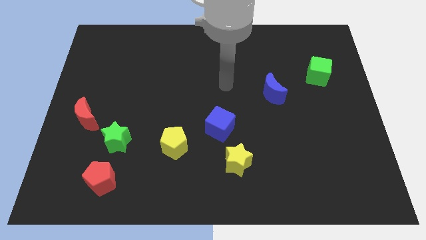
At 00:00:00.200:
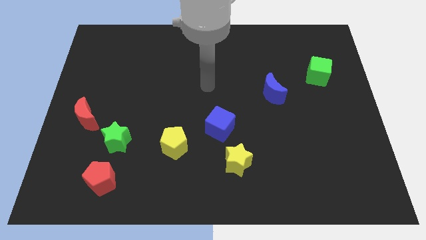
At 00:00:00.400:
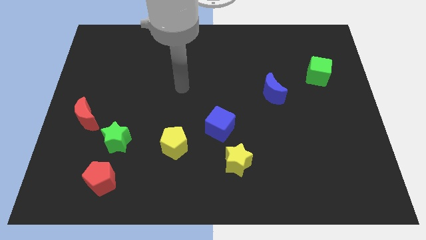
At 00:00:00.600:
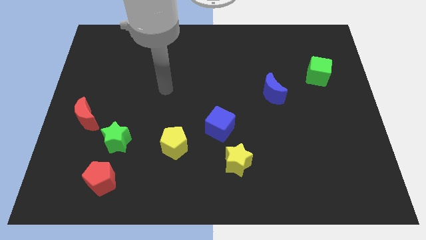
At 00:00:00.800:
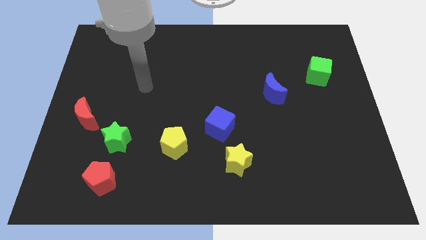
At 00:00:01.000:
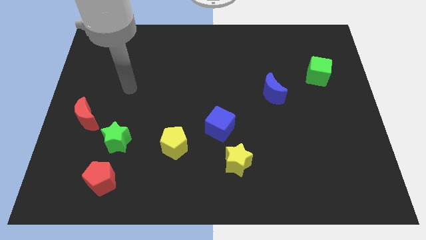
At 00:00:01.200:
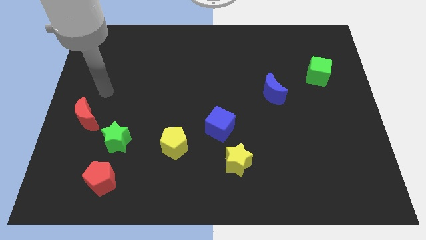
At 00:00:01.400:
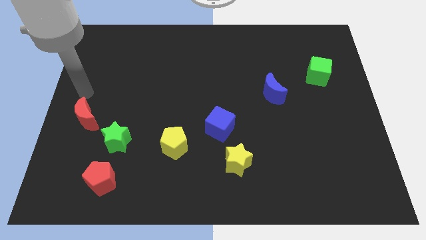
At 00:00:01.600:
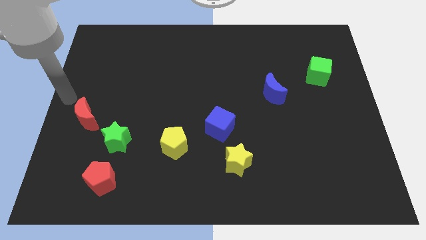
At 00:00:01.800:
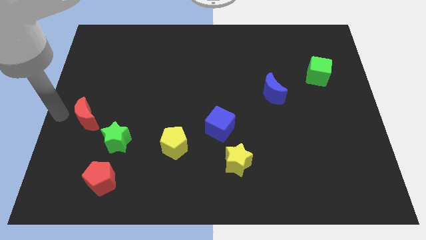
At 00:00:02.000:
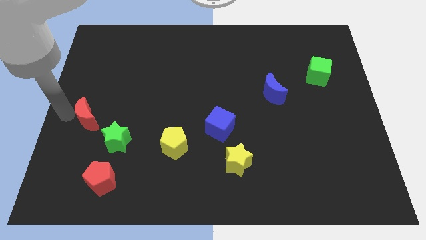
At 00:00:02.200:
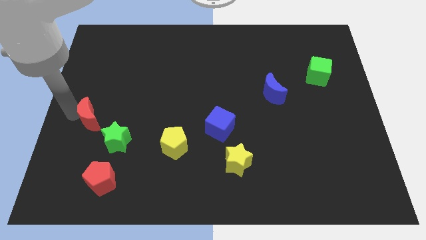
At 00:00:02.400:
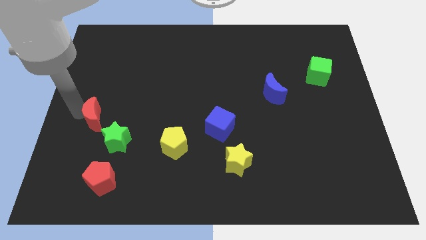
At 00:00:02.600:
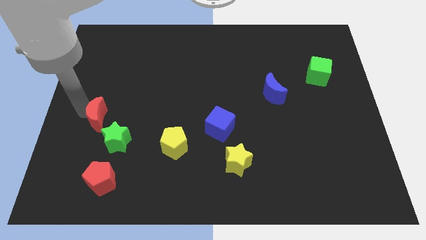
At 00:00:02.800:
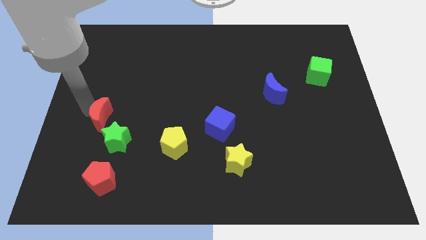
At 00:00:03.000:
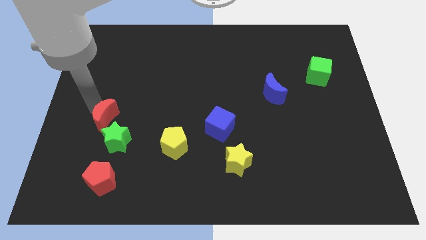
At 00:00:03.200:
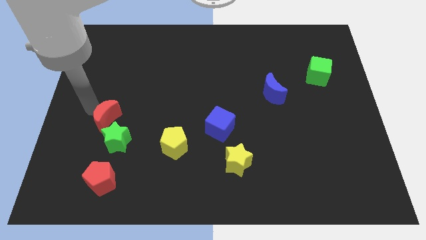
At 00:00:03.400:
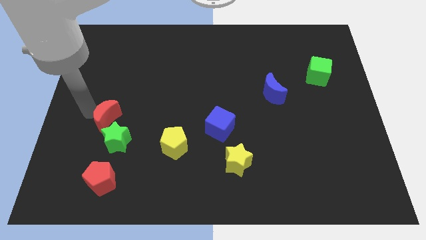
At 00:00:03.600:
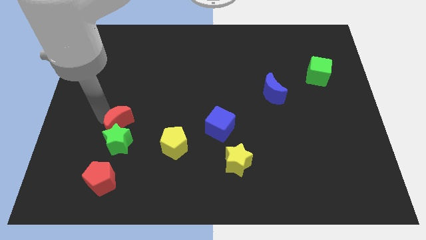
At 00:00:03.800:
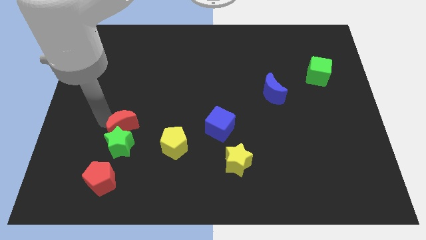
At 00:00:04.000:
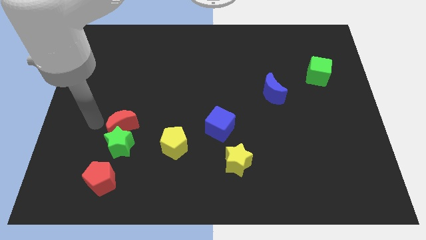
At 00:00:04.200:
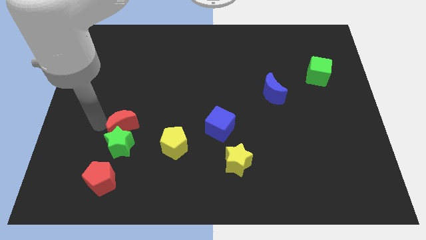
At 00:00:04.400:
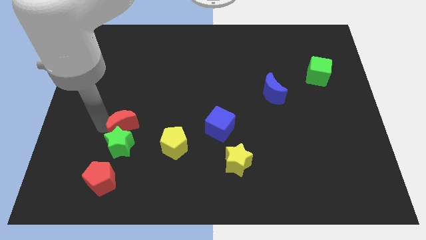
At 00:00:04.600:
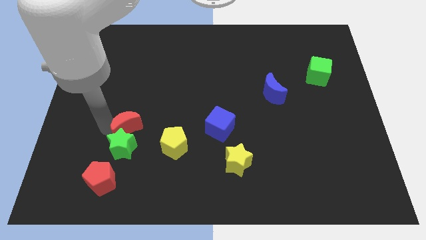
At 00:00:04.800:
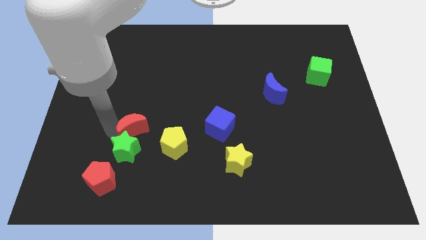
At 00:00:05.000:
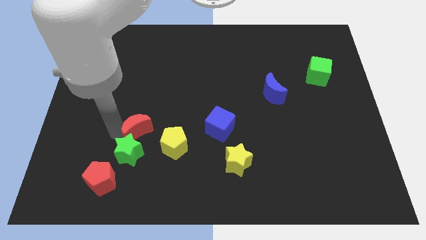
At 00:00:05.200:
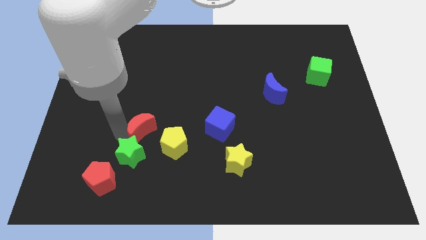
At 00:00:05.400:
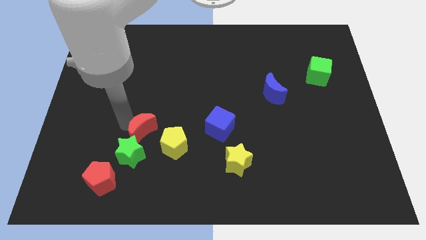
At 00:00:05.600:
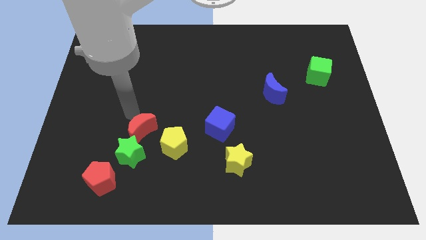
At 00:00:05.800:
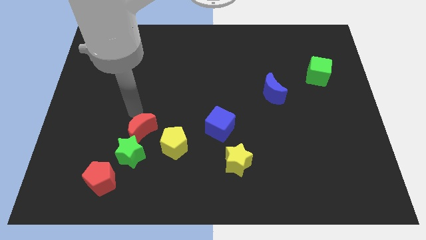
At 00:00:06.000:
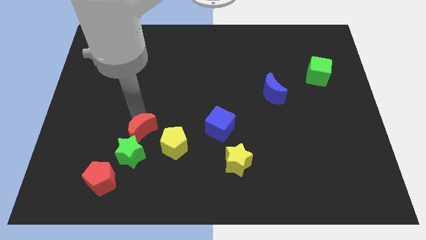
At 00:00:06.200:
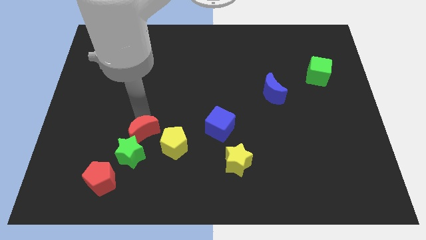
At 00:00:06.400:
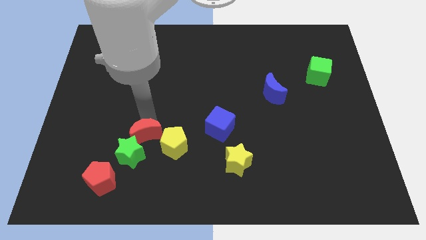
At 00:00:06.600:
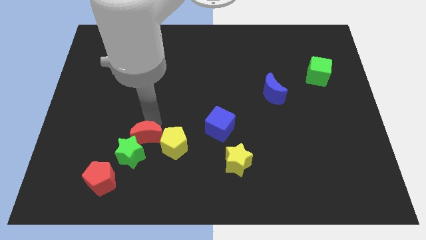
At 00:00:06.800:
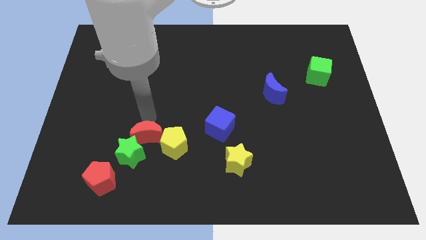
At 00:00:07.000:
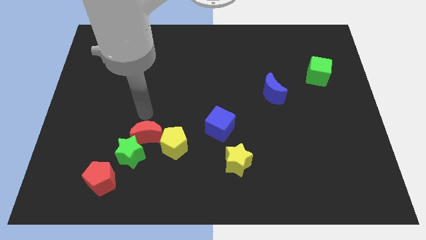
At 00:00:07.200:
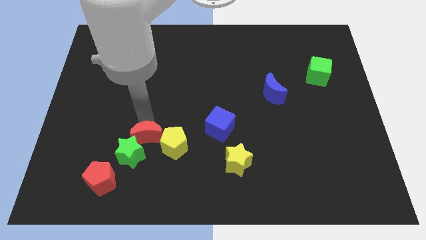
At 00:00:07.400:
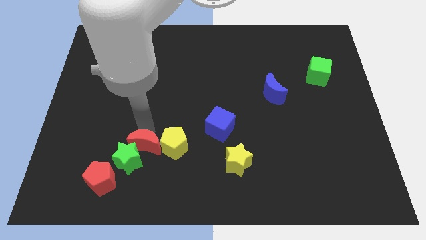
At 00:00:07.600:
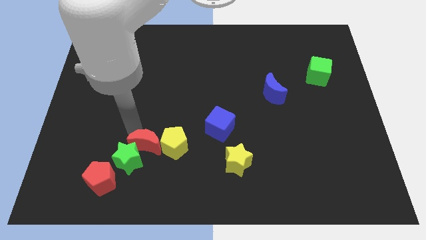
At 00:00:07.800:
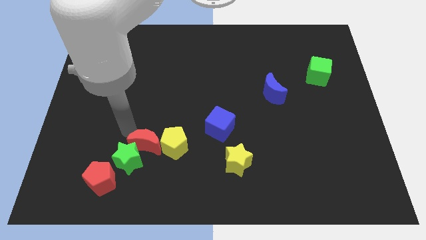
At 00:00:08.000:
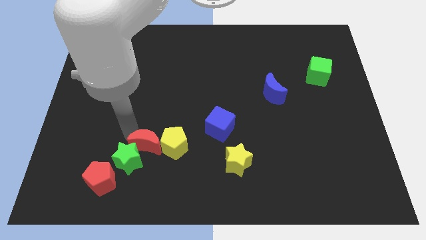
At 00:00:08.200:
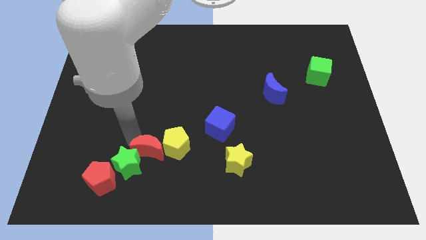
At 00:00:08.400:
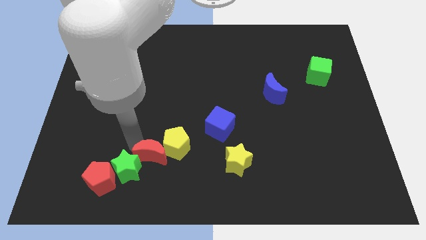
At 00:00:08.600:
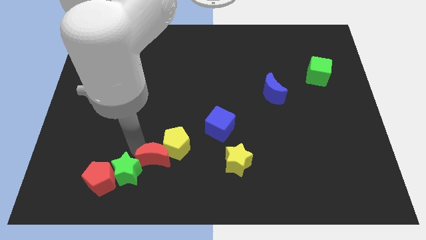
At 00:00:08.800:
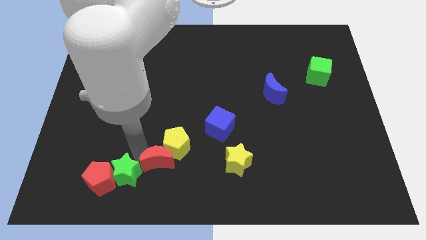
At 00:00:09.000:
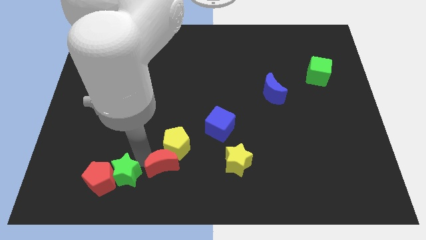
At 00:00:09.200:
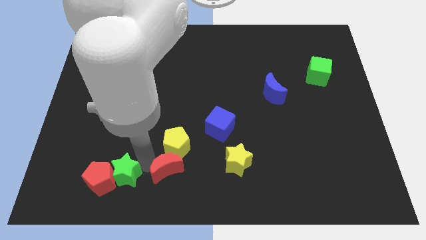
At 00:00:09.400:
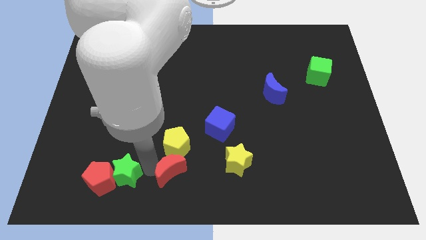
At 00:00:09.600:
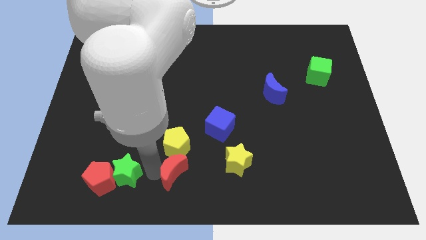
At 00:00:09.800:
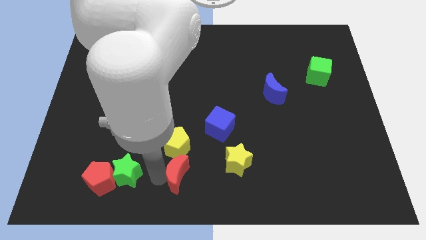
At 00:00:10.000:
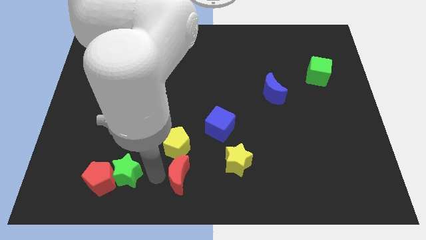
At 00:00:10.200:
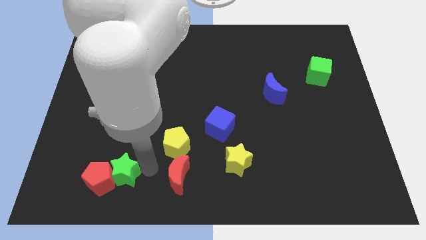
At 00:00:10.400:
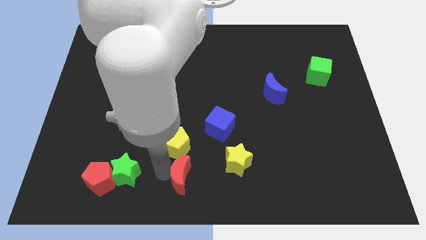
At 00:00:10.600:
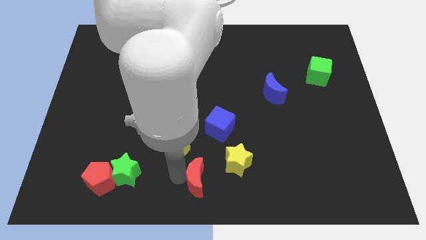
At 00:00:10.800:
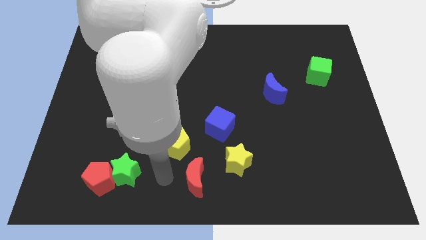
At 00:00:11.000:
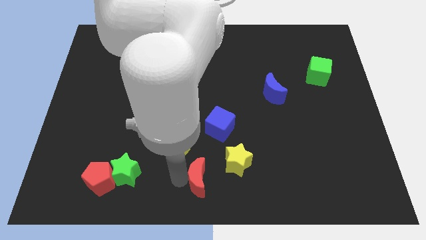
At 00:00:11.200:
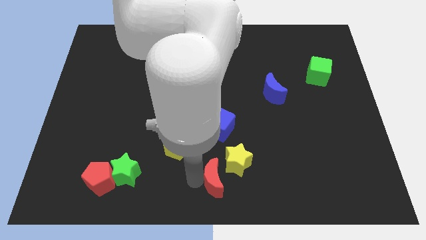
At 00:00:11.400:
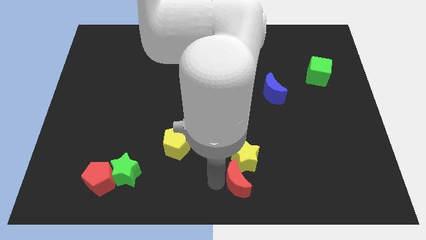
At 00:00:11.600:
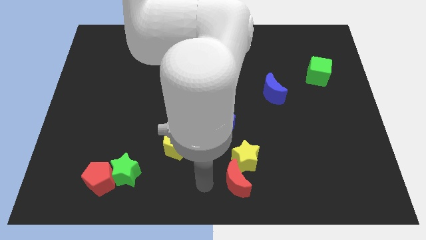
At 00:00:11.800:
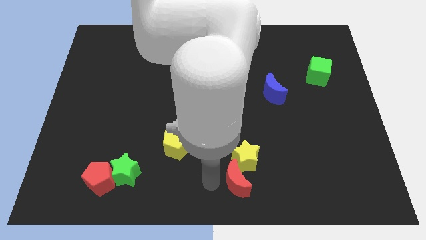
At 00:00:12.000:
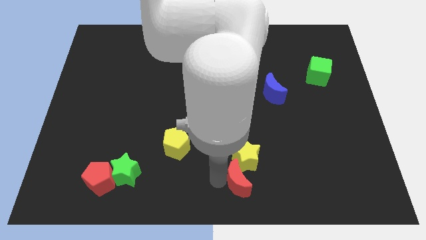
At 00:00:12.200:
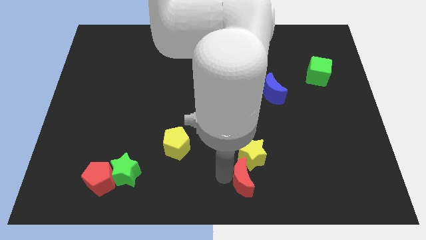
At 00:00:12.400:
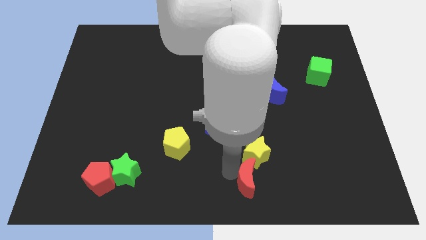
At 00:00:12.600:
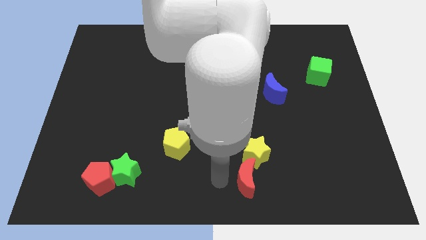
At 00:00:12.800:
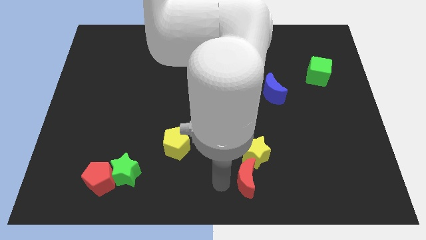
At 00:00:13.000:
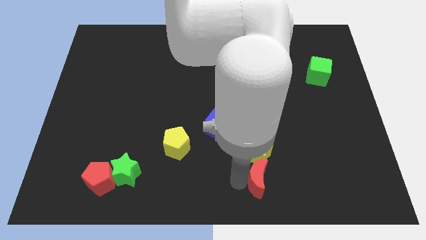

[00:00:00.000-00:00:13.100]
slide the red moon to the bottom right side of the yellow star
